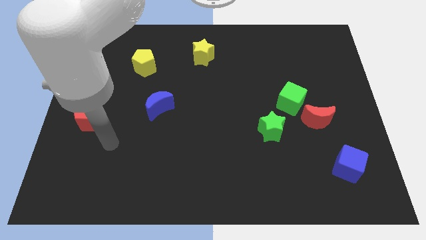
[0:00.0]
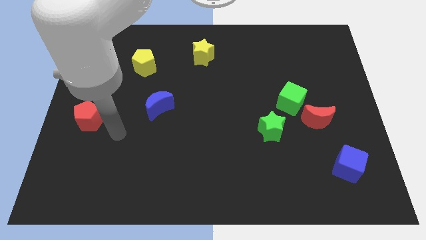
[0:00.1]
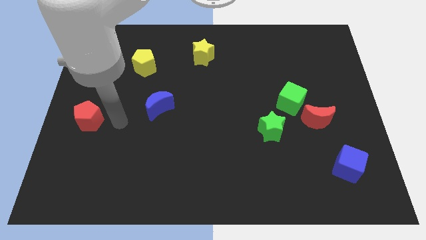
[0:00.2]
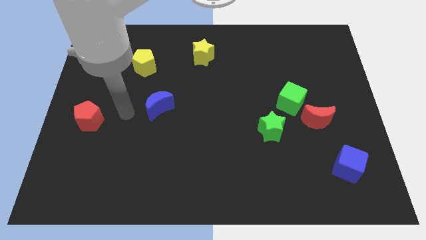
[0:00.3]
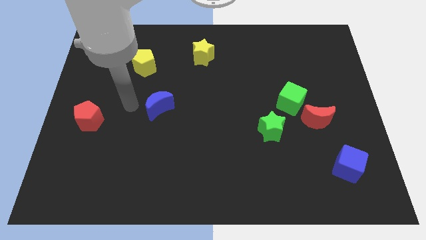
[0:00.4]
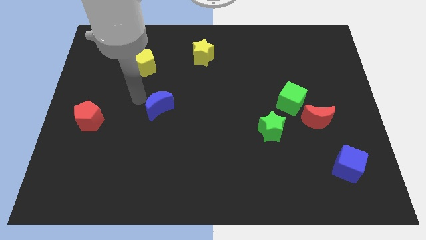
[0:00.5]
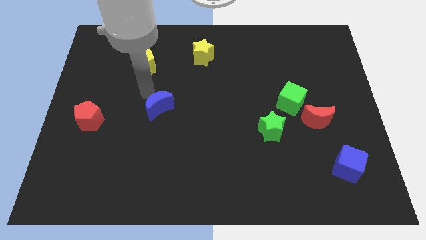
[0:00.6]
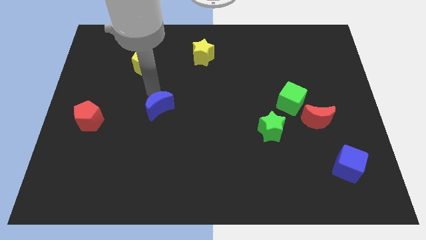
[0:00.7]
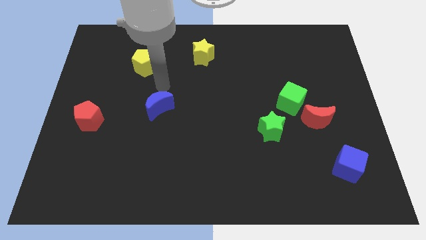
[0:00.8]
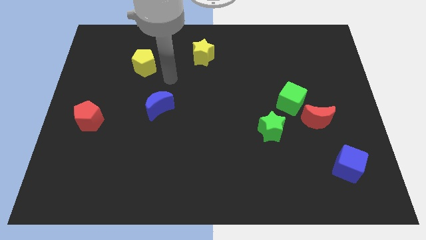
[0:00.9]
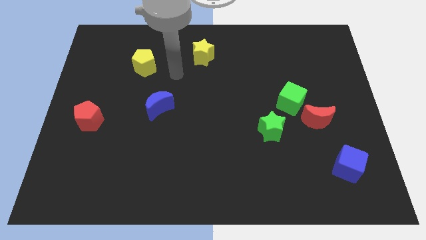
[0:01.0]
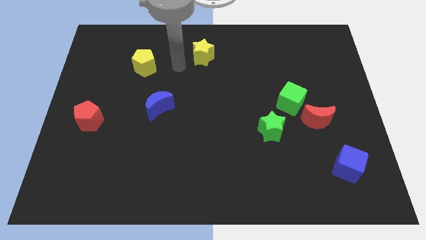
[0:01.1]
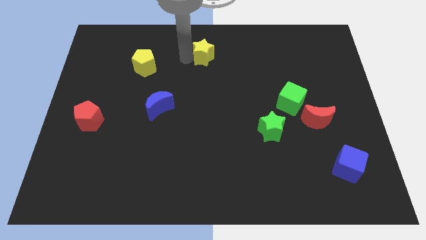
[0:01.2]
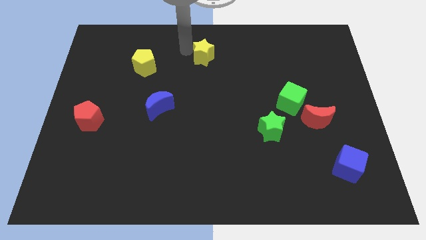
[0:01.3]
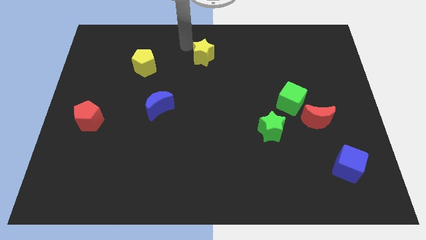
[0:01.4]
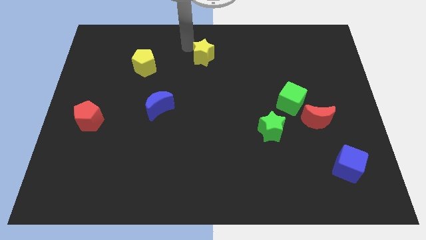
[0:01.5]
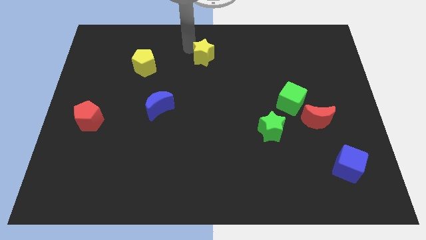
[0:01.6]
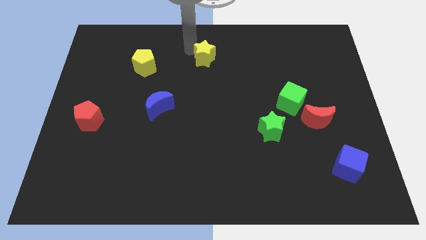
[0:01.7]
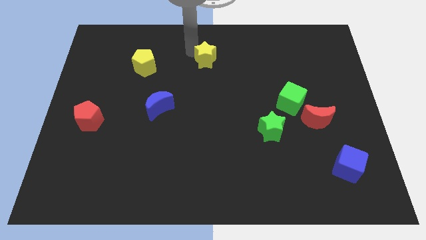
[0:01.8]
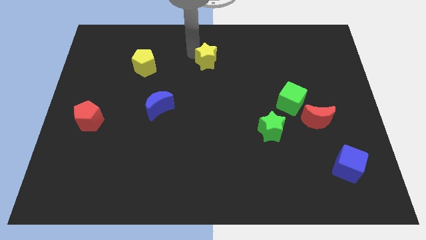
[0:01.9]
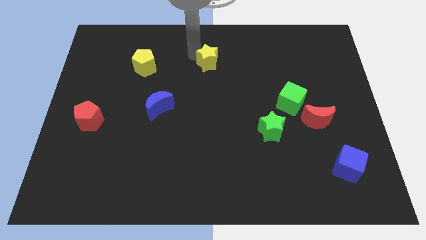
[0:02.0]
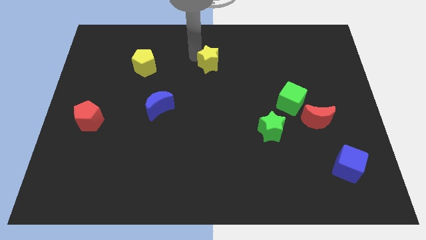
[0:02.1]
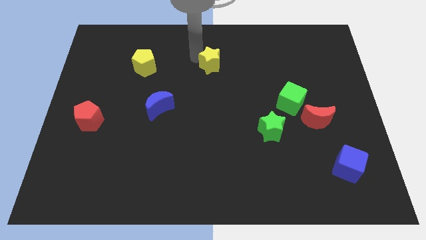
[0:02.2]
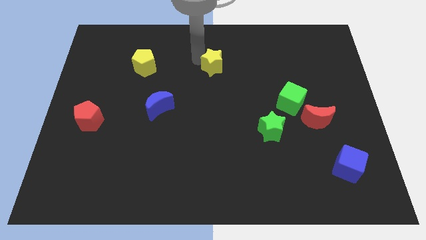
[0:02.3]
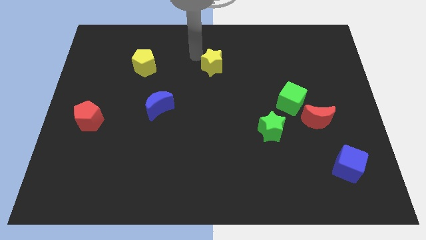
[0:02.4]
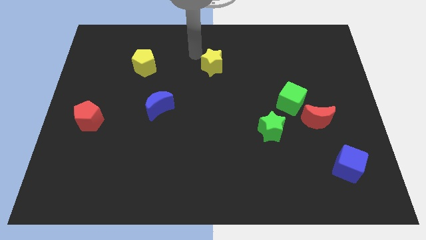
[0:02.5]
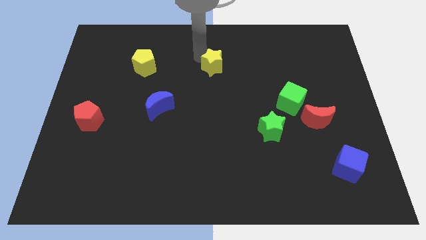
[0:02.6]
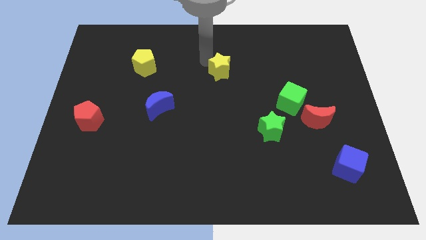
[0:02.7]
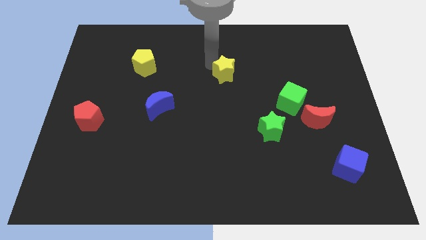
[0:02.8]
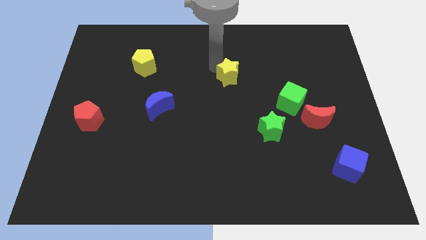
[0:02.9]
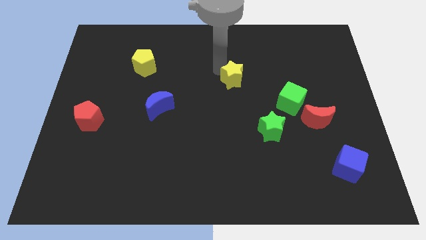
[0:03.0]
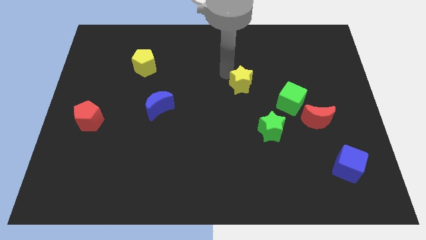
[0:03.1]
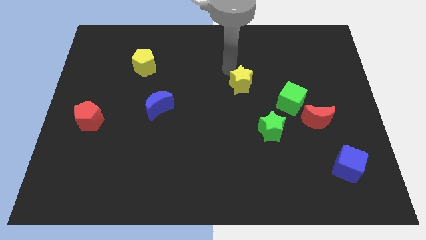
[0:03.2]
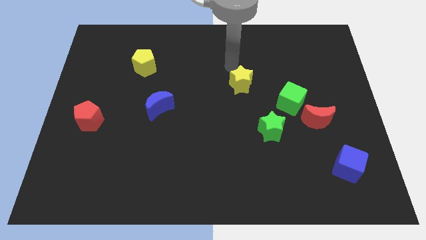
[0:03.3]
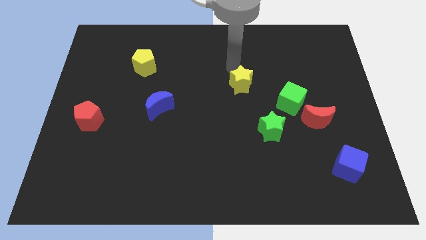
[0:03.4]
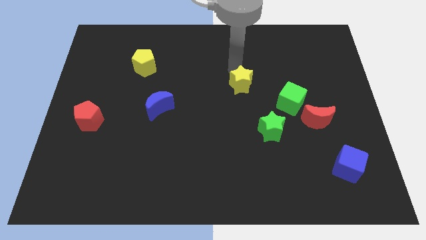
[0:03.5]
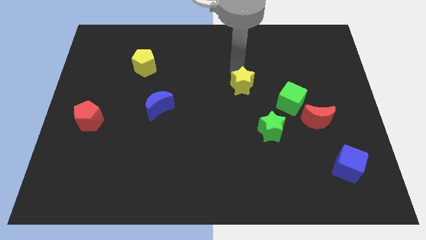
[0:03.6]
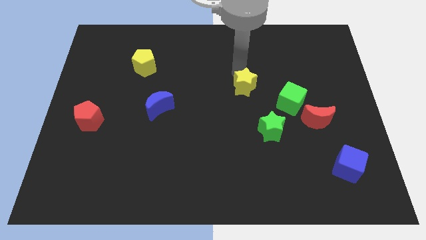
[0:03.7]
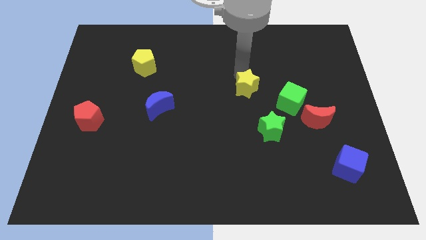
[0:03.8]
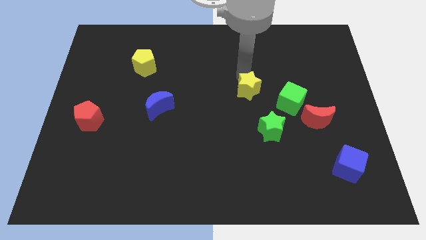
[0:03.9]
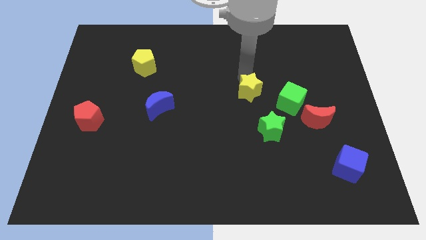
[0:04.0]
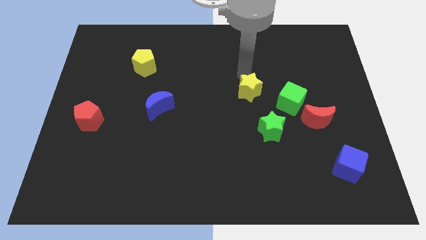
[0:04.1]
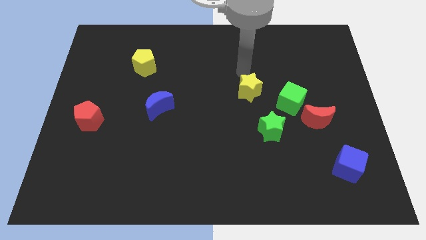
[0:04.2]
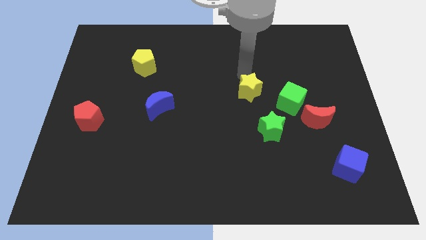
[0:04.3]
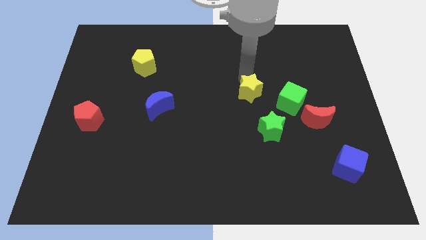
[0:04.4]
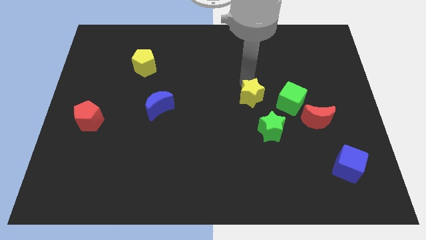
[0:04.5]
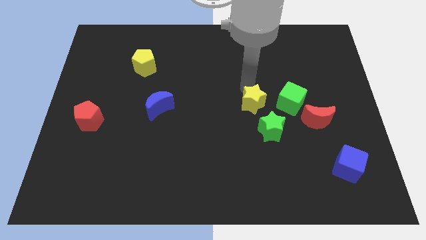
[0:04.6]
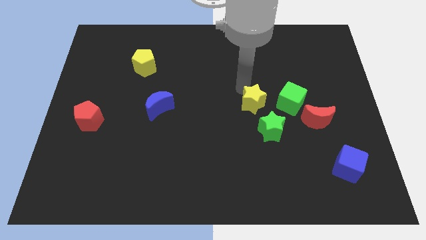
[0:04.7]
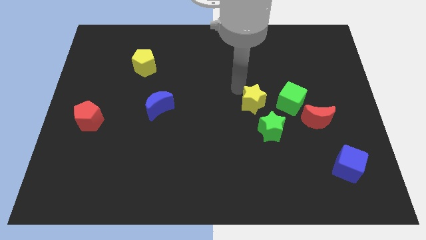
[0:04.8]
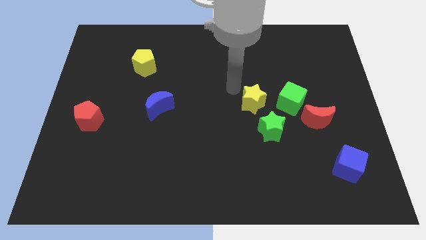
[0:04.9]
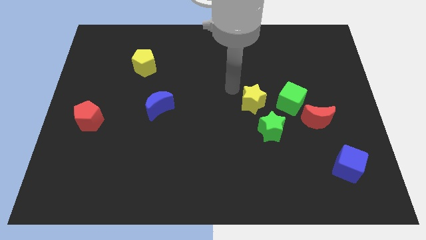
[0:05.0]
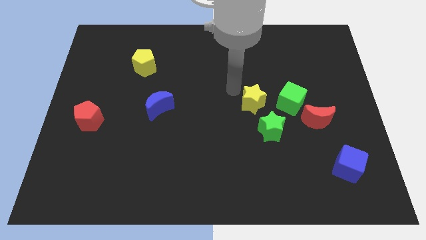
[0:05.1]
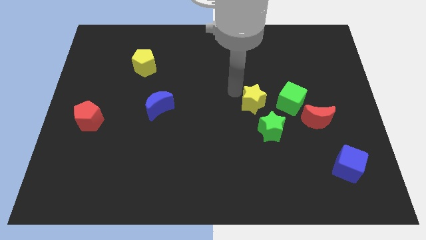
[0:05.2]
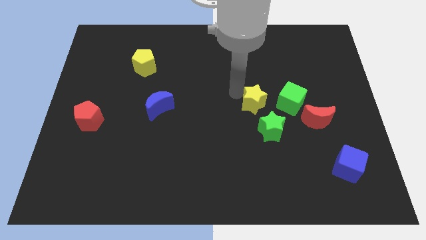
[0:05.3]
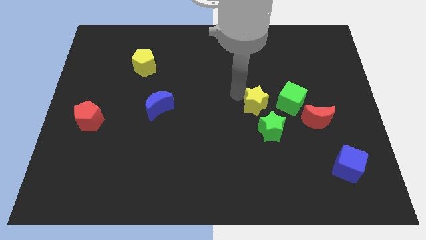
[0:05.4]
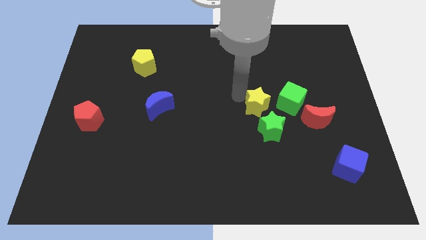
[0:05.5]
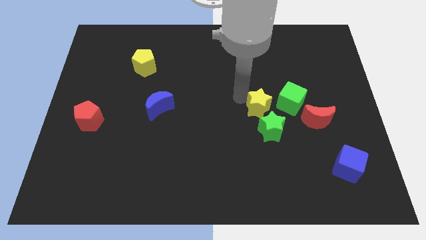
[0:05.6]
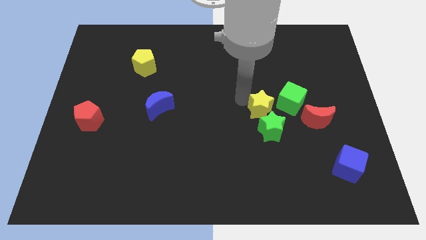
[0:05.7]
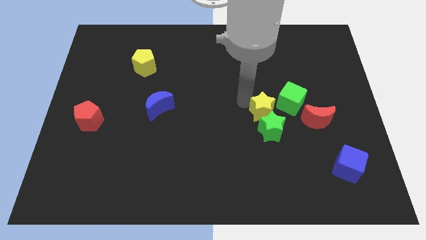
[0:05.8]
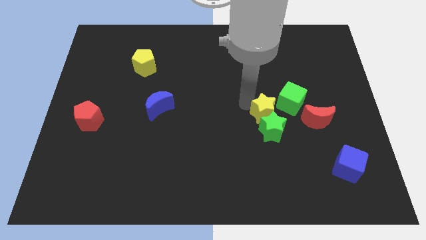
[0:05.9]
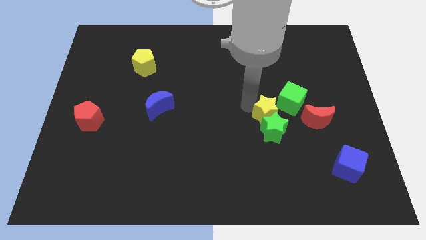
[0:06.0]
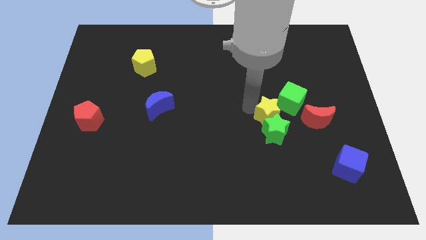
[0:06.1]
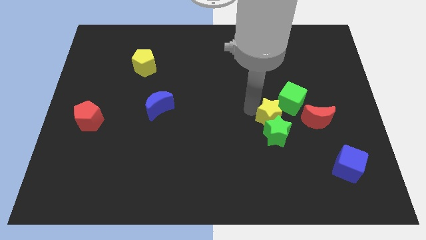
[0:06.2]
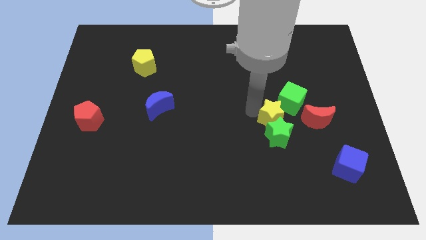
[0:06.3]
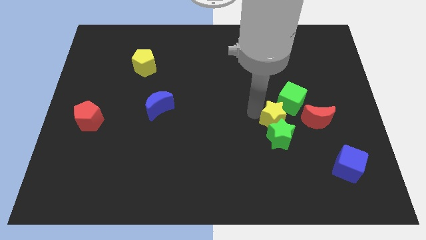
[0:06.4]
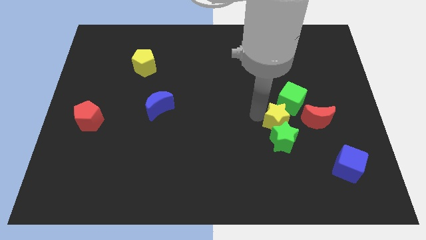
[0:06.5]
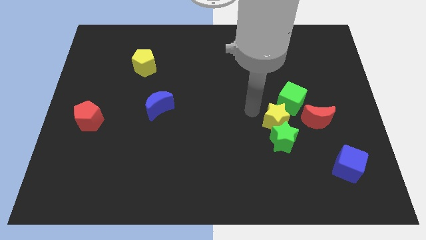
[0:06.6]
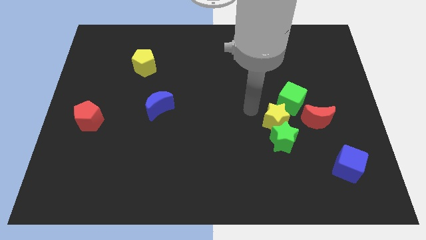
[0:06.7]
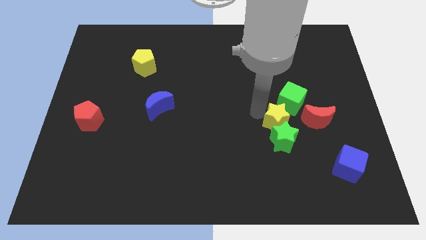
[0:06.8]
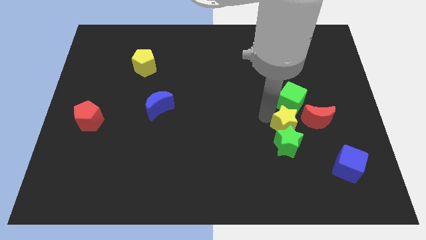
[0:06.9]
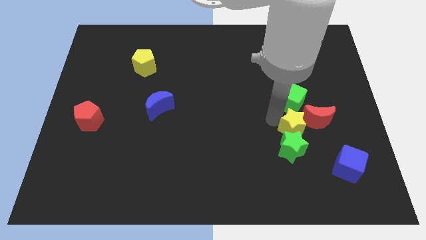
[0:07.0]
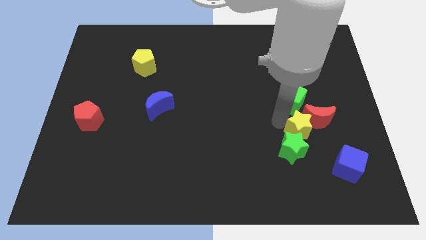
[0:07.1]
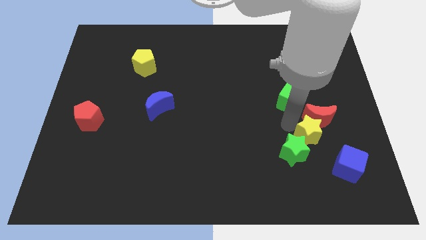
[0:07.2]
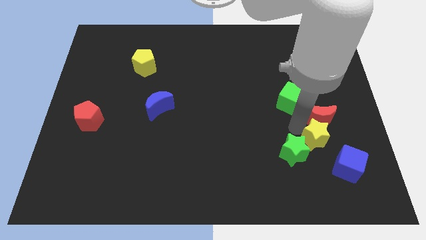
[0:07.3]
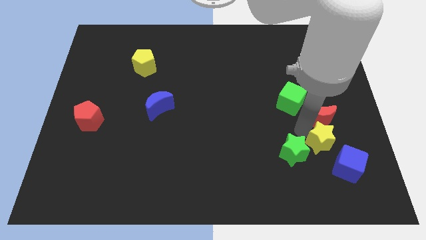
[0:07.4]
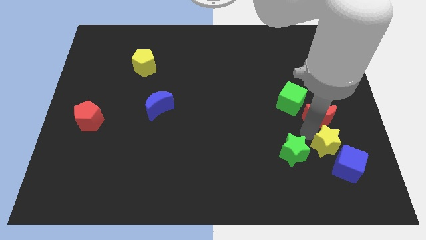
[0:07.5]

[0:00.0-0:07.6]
move the yellow star next to the blue cube
